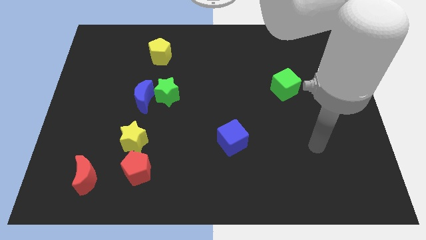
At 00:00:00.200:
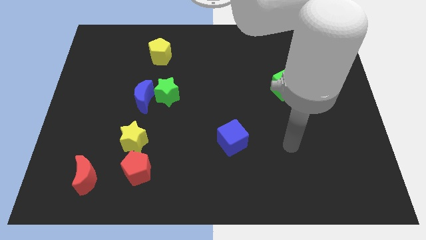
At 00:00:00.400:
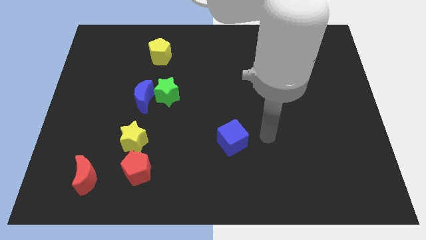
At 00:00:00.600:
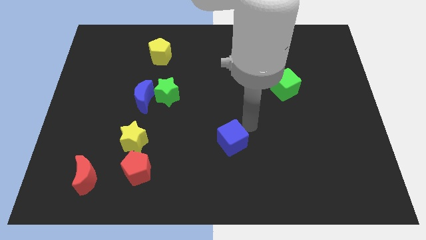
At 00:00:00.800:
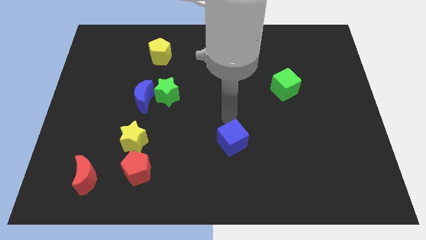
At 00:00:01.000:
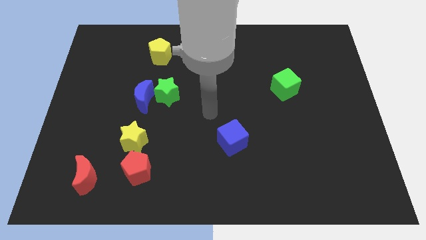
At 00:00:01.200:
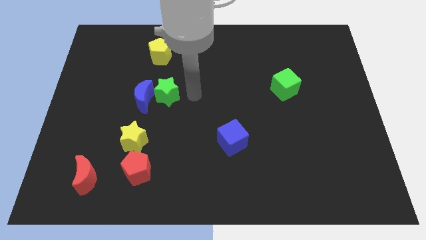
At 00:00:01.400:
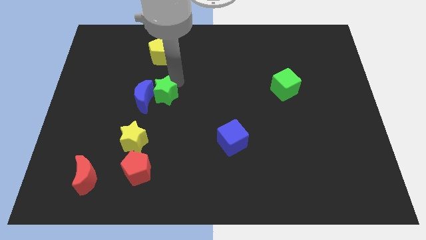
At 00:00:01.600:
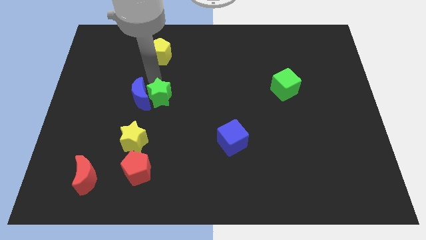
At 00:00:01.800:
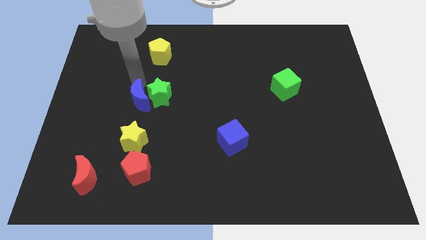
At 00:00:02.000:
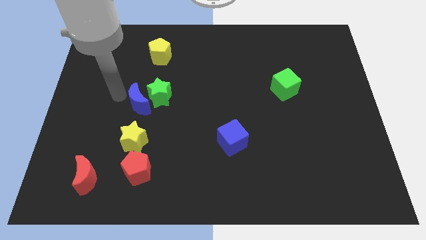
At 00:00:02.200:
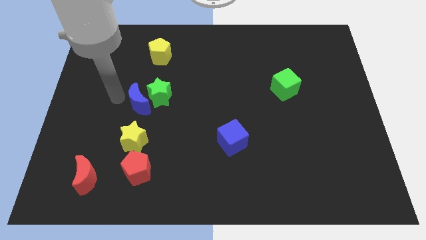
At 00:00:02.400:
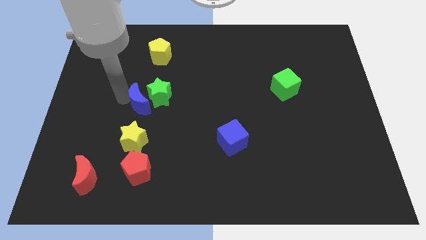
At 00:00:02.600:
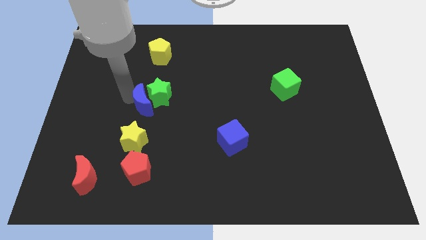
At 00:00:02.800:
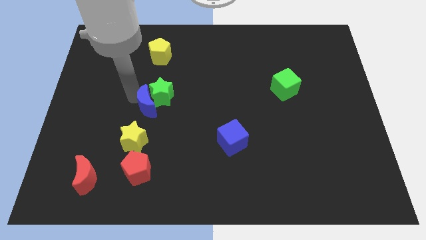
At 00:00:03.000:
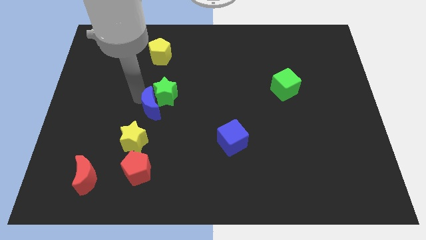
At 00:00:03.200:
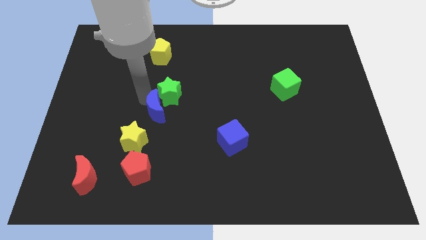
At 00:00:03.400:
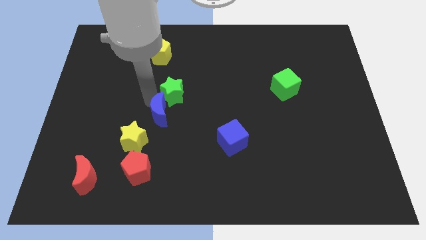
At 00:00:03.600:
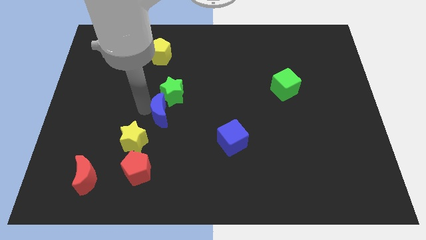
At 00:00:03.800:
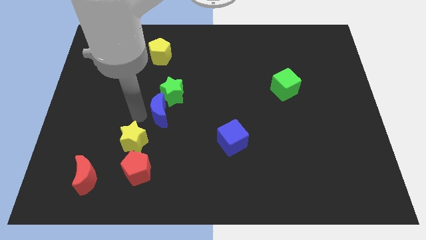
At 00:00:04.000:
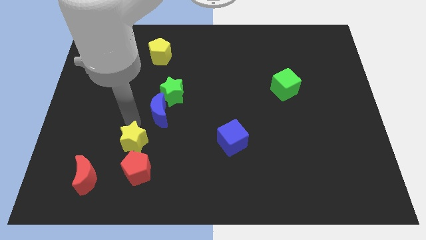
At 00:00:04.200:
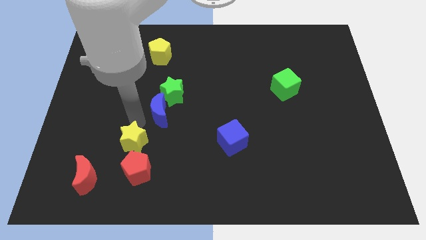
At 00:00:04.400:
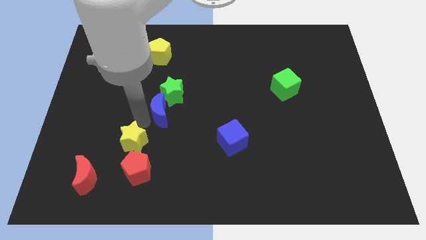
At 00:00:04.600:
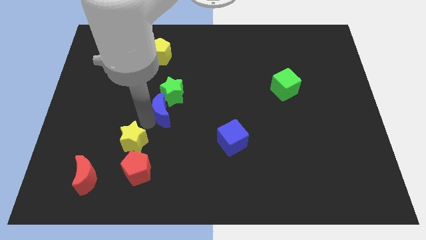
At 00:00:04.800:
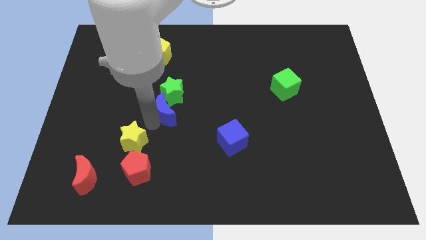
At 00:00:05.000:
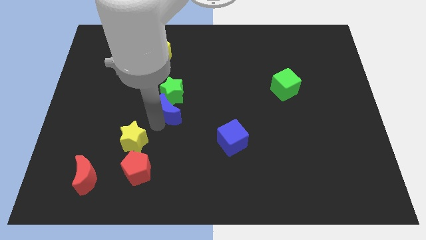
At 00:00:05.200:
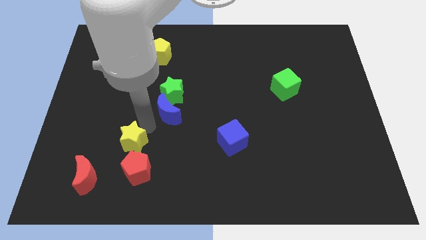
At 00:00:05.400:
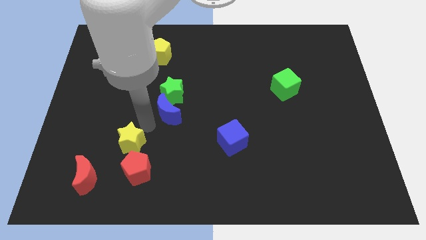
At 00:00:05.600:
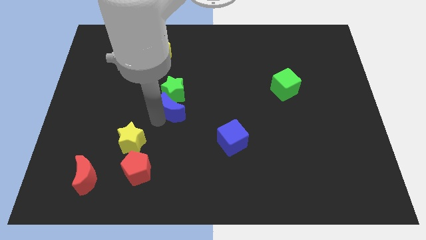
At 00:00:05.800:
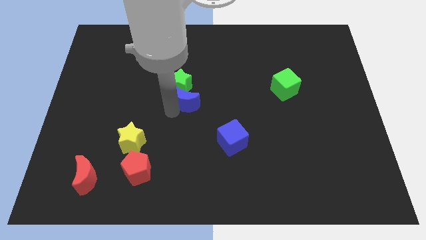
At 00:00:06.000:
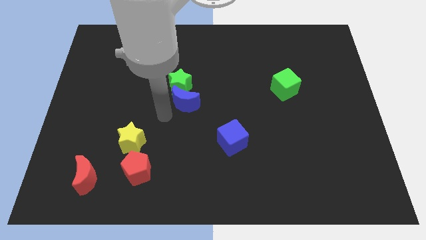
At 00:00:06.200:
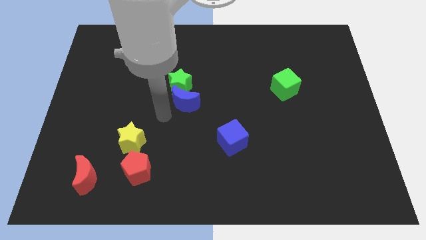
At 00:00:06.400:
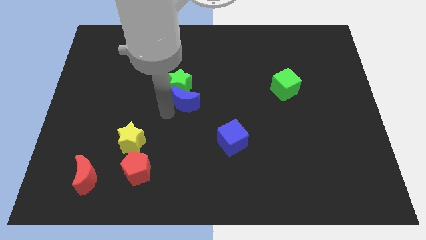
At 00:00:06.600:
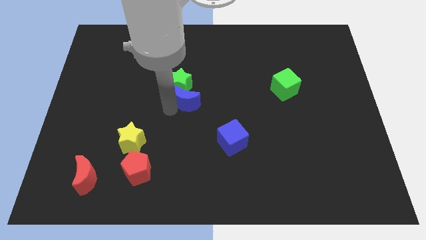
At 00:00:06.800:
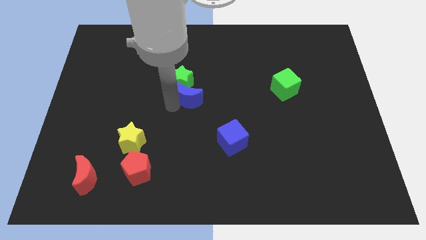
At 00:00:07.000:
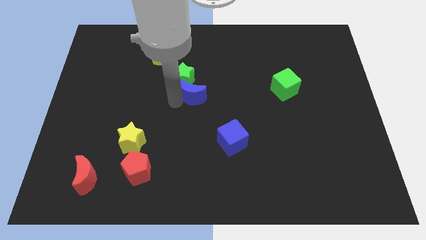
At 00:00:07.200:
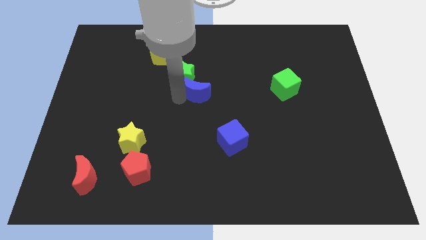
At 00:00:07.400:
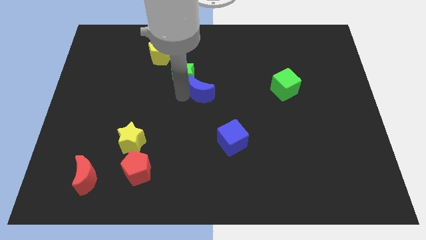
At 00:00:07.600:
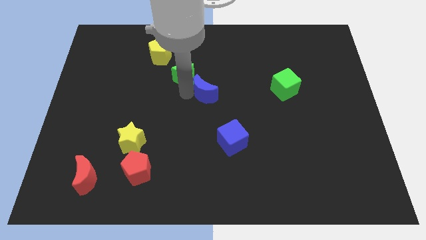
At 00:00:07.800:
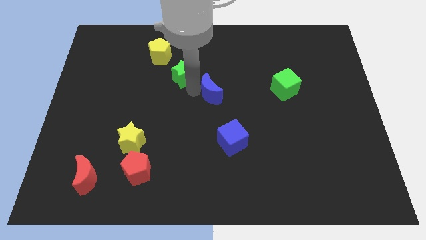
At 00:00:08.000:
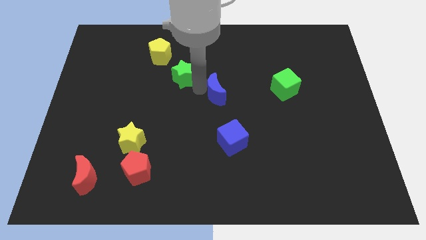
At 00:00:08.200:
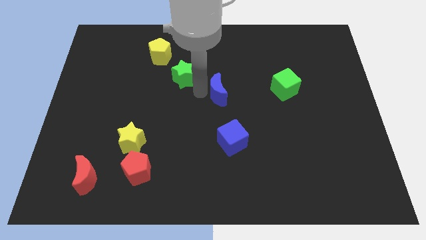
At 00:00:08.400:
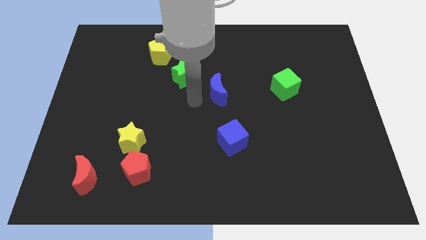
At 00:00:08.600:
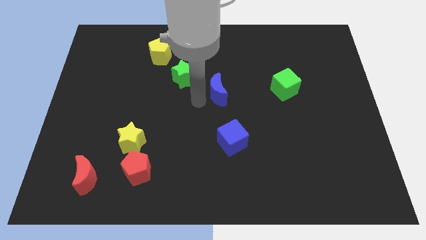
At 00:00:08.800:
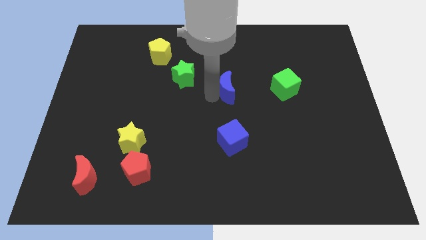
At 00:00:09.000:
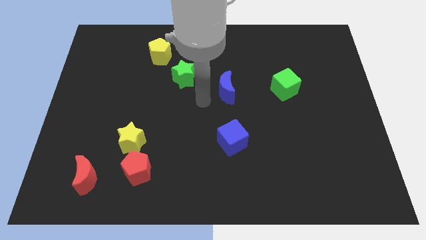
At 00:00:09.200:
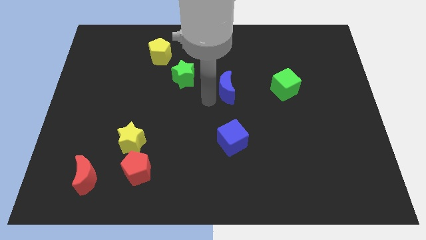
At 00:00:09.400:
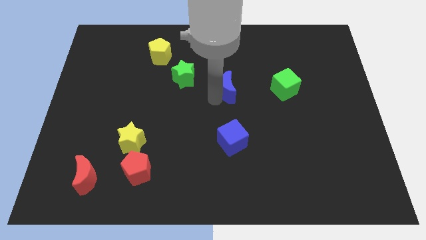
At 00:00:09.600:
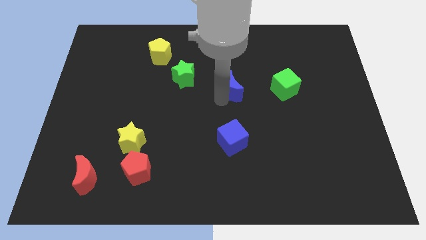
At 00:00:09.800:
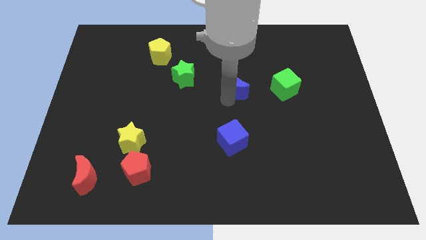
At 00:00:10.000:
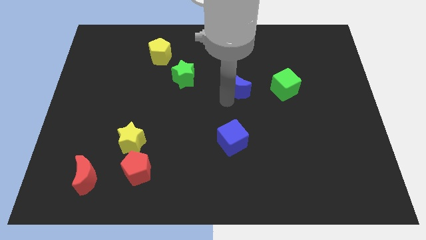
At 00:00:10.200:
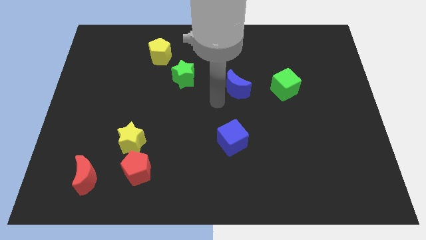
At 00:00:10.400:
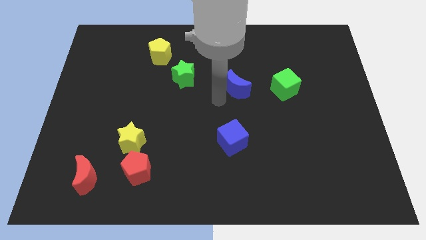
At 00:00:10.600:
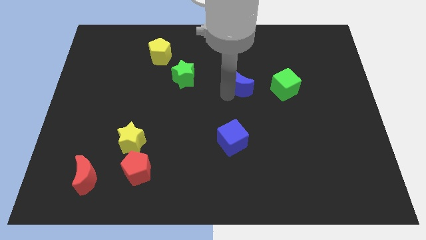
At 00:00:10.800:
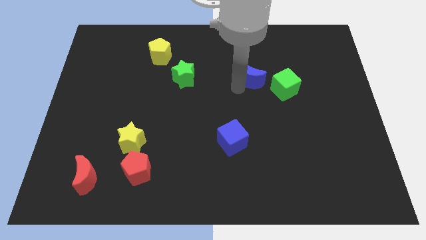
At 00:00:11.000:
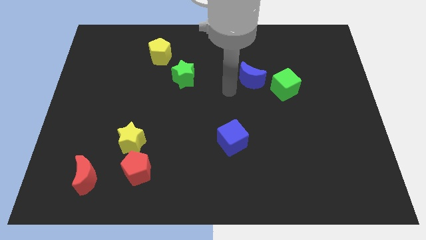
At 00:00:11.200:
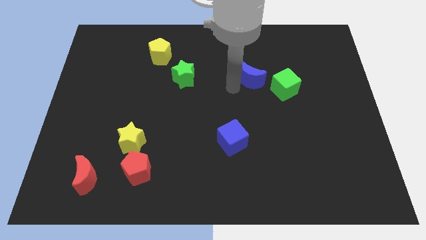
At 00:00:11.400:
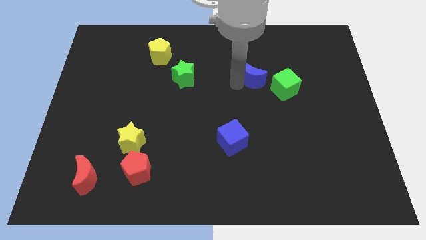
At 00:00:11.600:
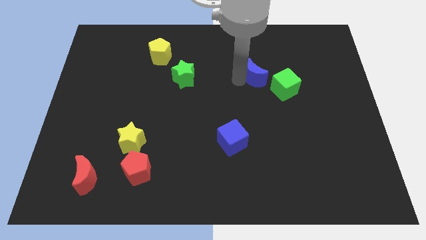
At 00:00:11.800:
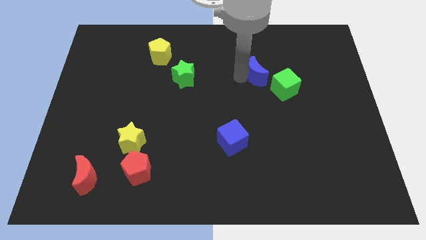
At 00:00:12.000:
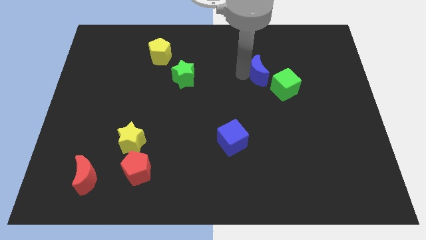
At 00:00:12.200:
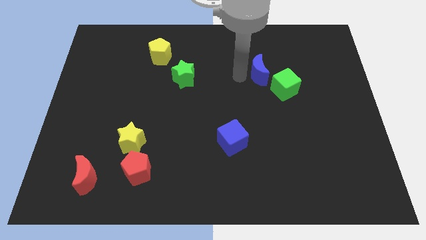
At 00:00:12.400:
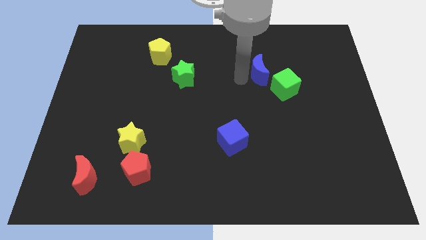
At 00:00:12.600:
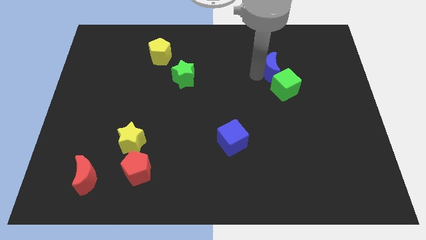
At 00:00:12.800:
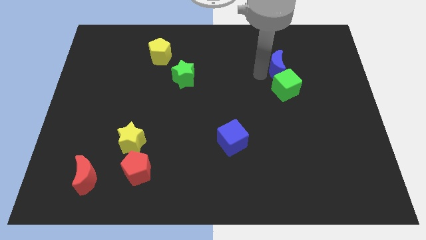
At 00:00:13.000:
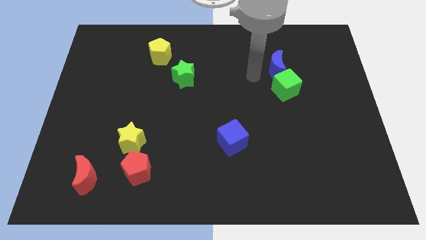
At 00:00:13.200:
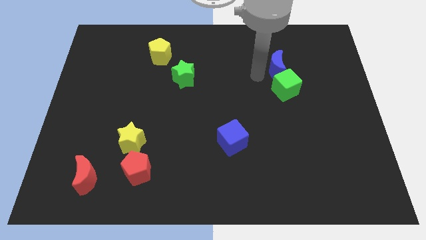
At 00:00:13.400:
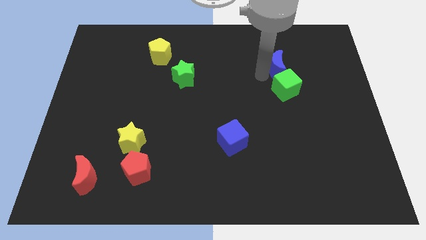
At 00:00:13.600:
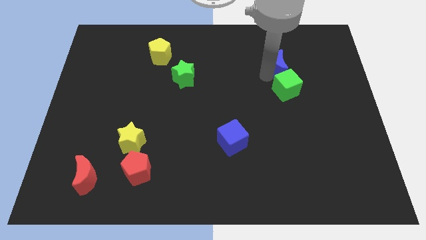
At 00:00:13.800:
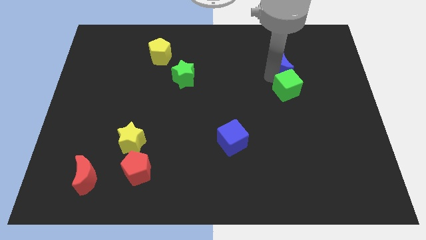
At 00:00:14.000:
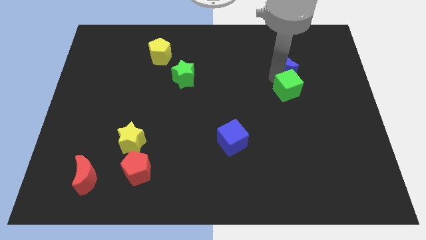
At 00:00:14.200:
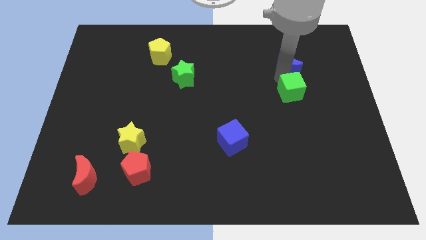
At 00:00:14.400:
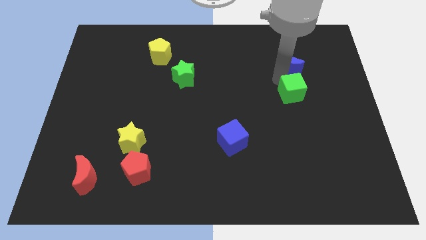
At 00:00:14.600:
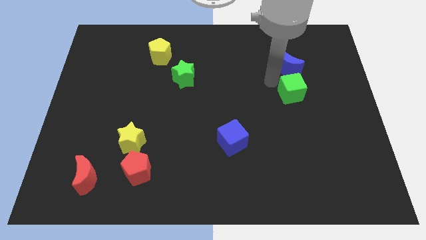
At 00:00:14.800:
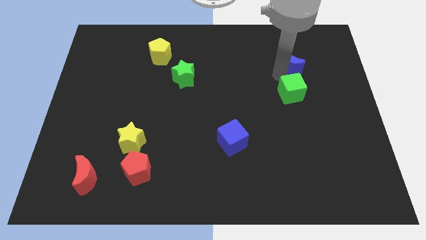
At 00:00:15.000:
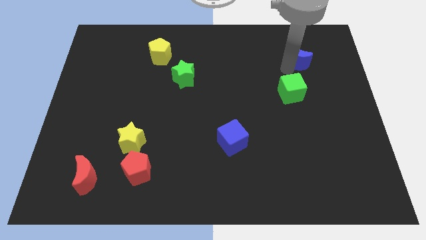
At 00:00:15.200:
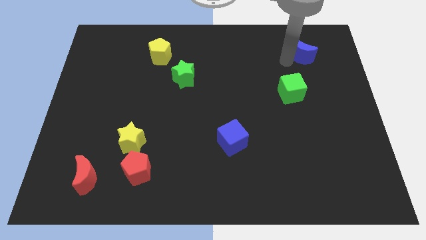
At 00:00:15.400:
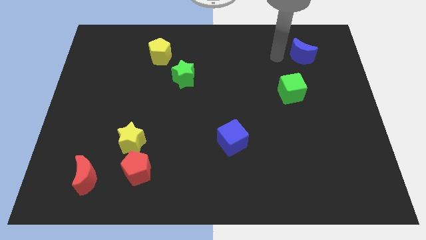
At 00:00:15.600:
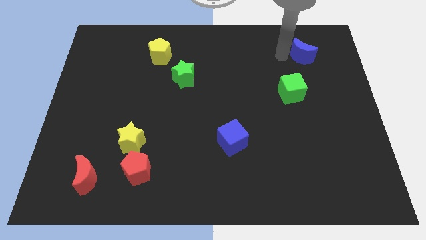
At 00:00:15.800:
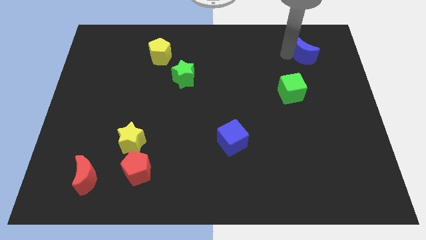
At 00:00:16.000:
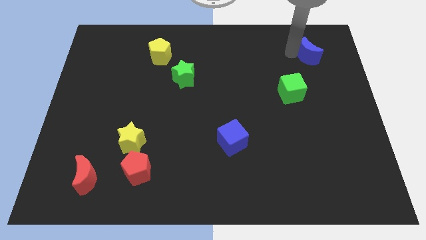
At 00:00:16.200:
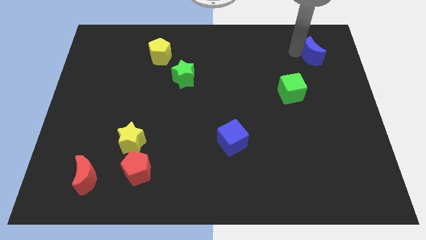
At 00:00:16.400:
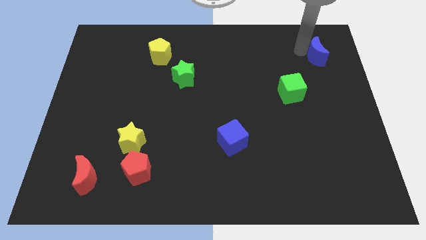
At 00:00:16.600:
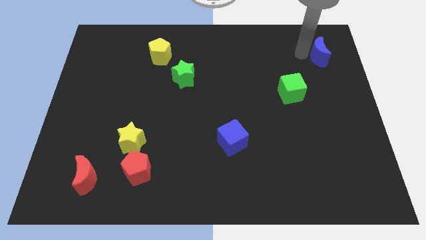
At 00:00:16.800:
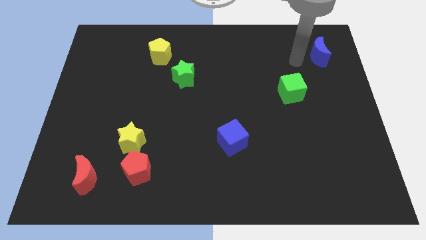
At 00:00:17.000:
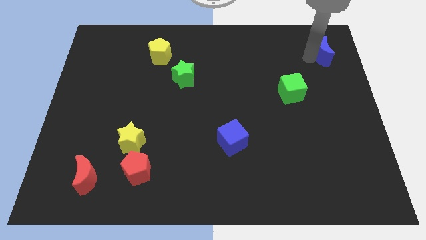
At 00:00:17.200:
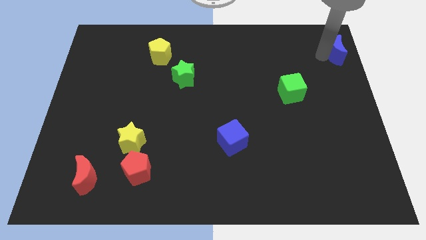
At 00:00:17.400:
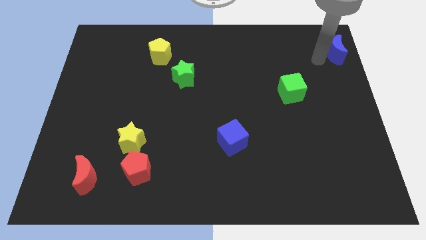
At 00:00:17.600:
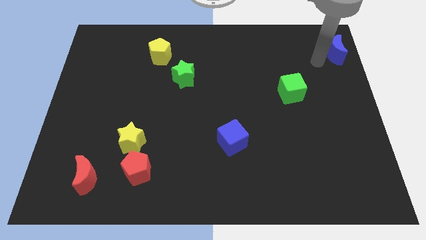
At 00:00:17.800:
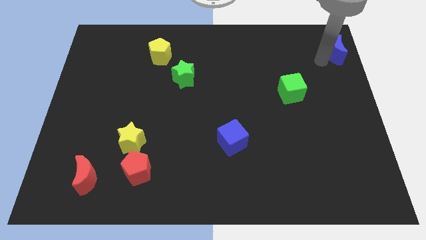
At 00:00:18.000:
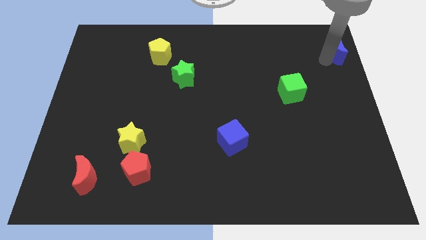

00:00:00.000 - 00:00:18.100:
slide the blue moon to the top right corner
